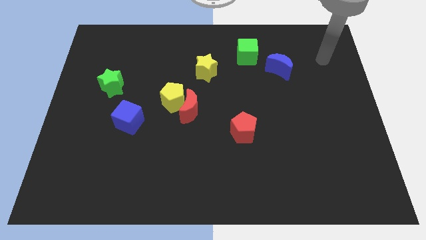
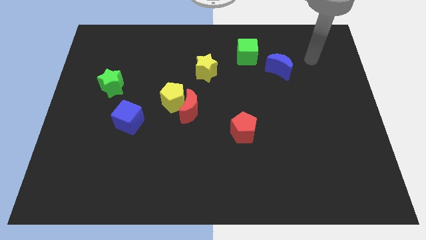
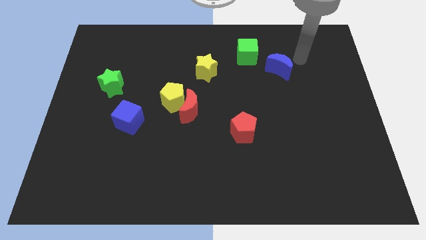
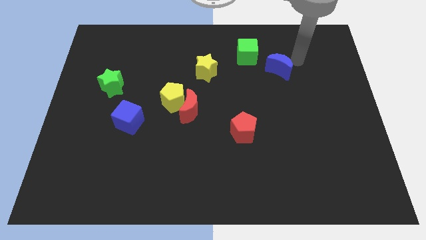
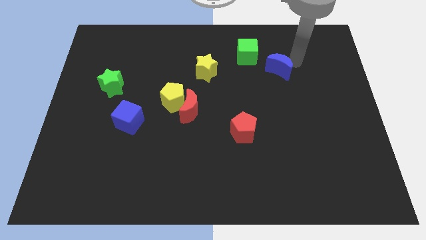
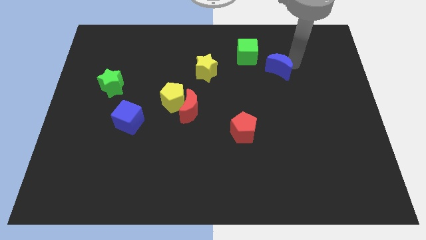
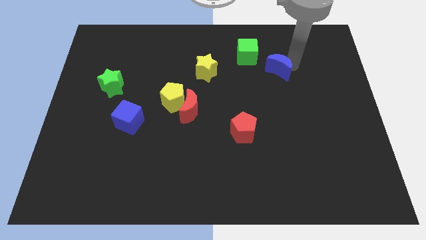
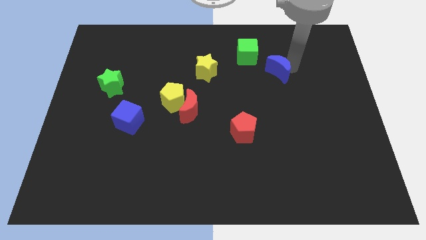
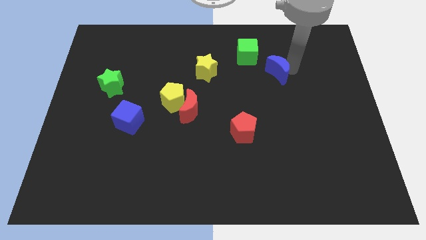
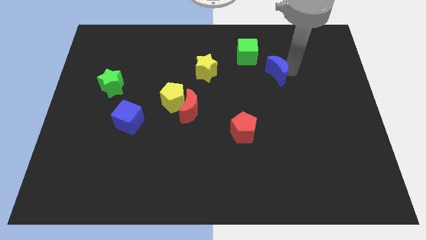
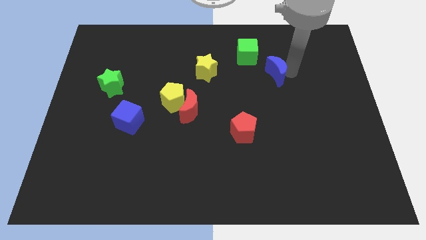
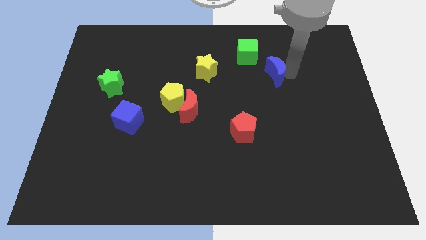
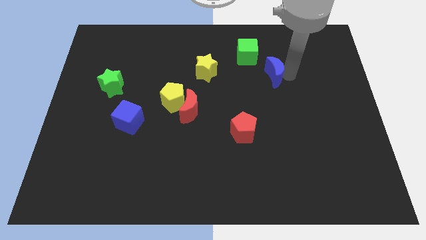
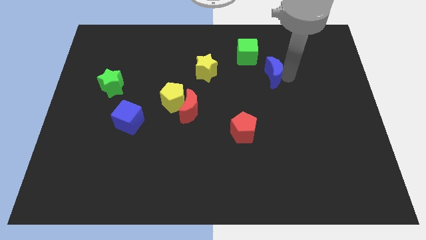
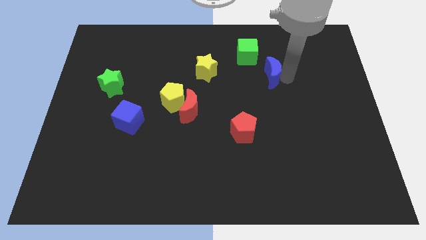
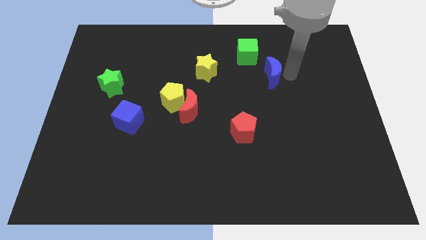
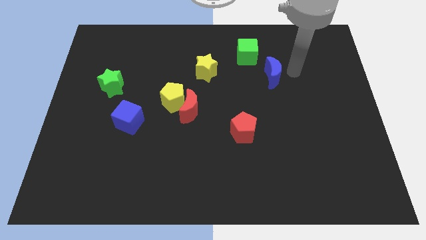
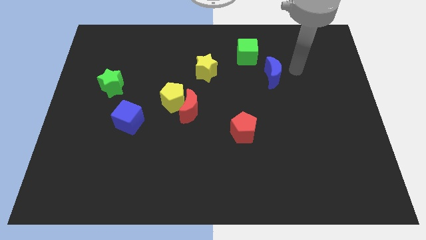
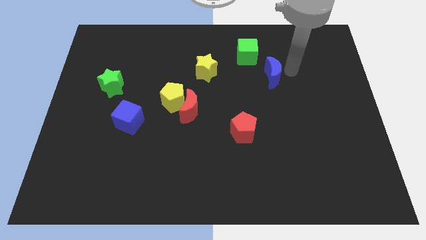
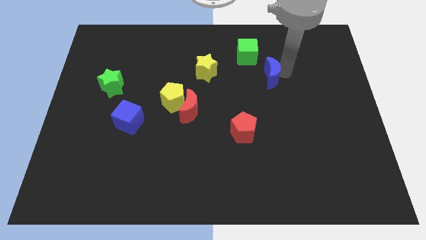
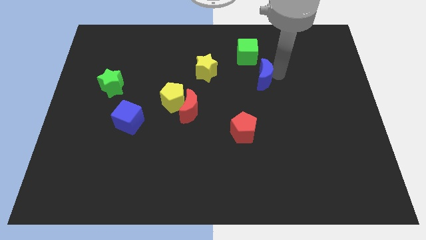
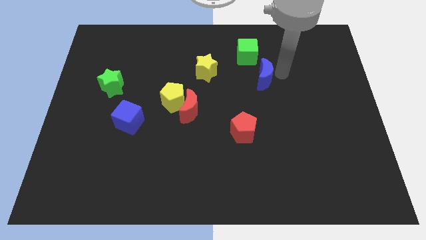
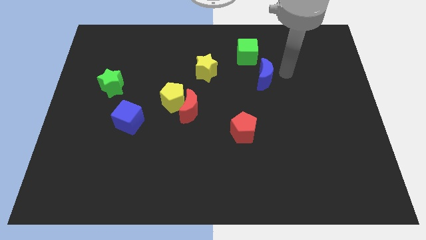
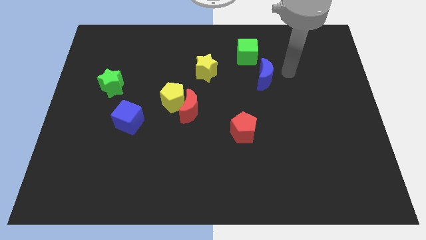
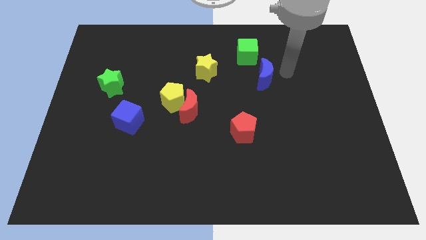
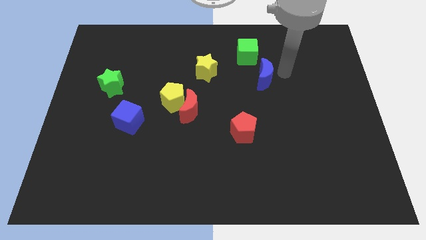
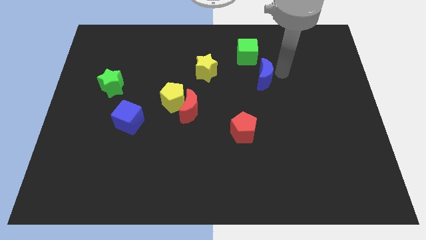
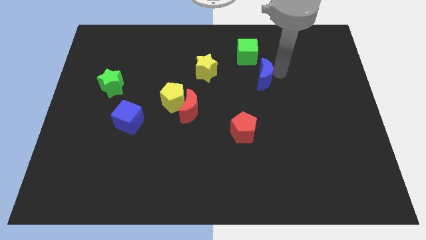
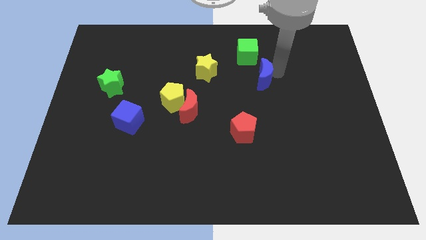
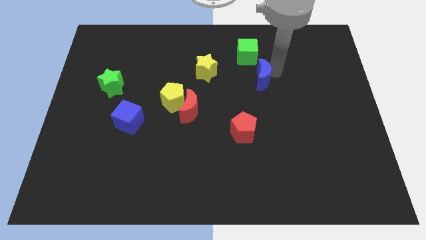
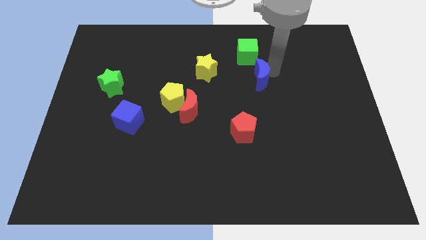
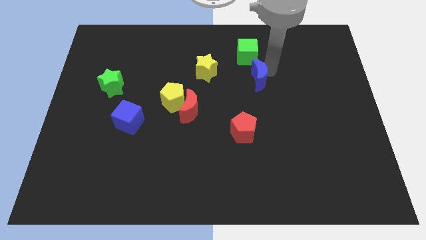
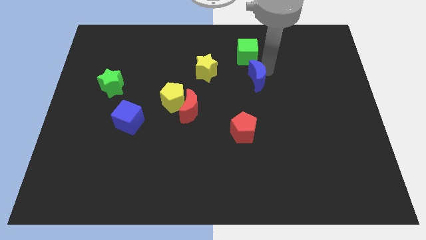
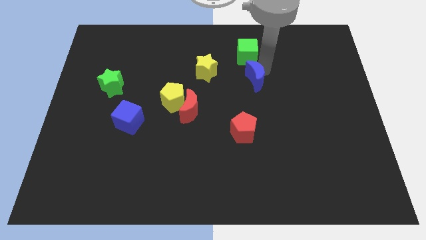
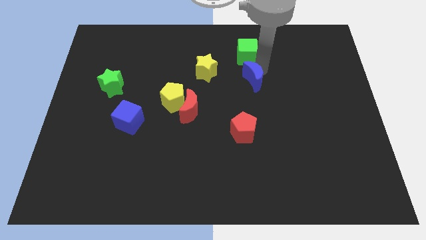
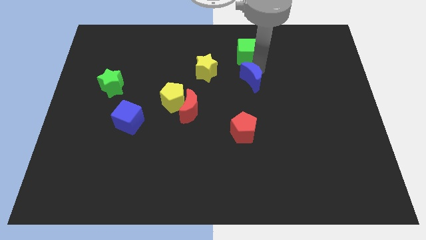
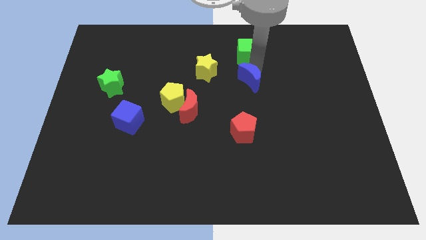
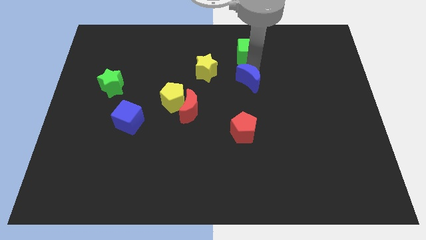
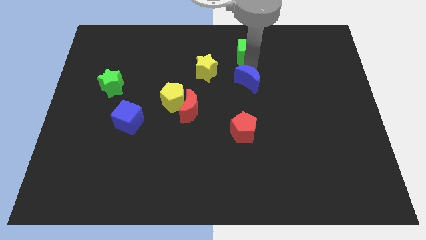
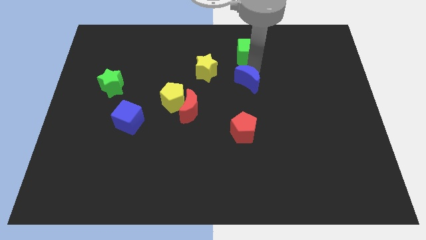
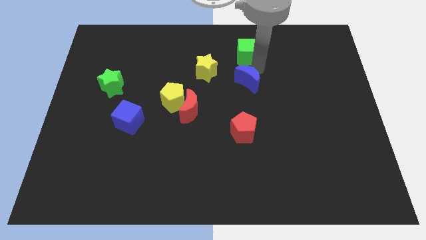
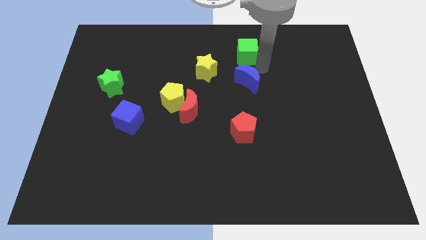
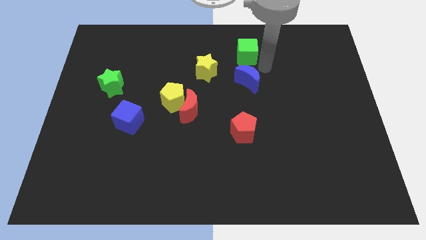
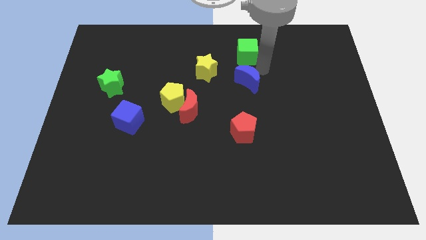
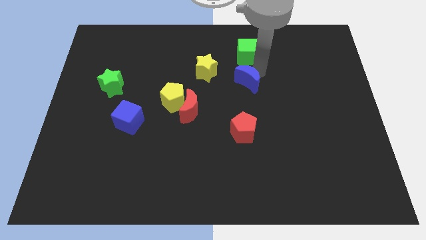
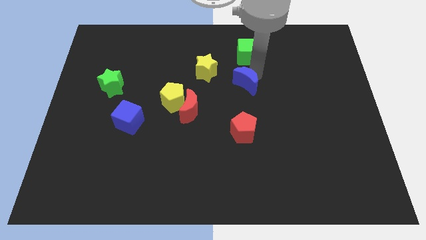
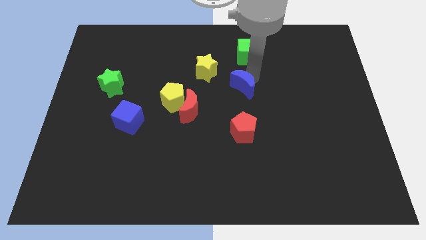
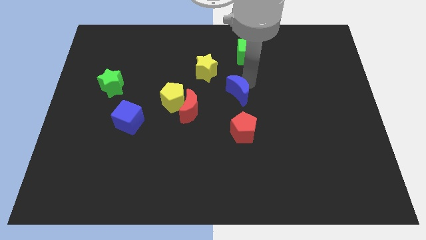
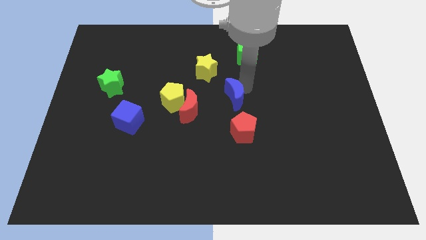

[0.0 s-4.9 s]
slide the blue moon to the right side of the yellow pentagon

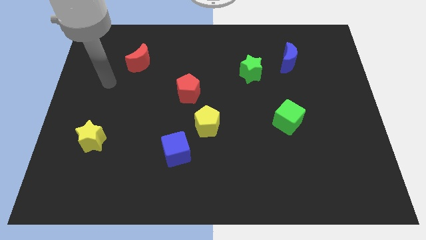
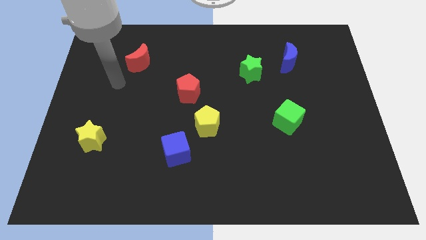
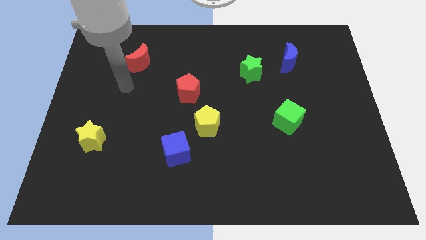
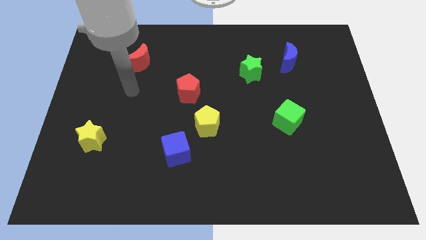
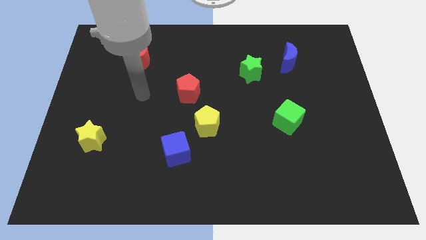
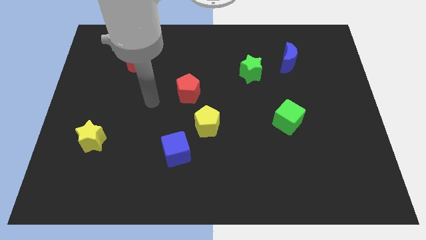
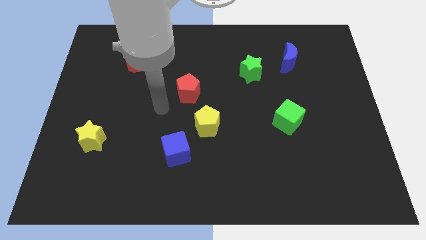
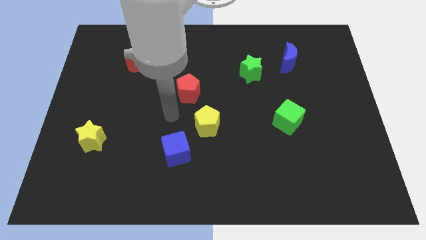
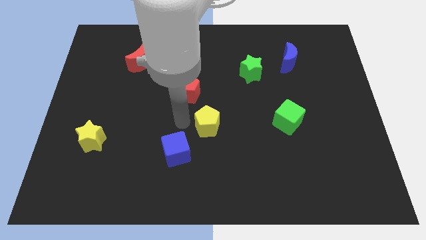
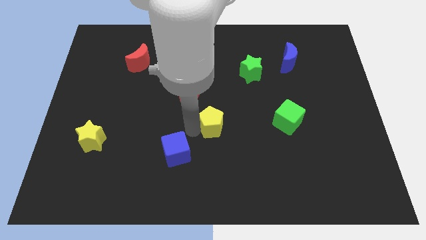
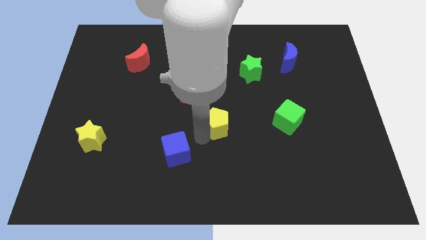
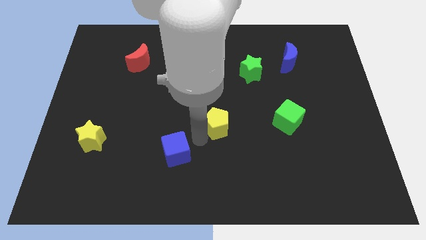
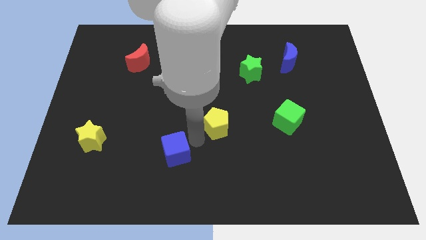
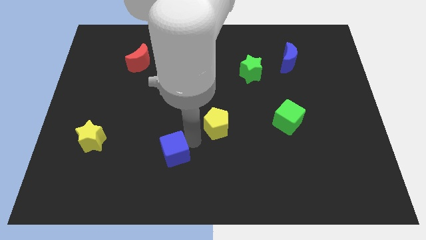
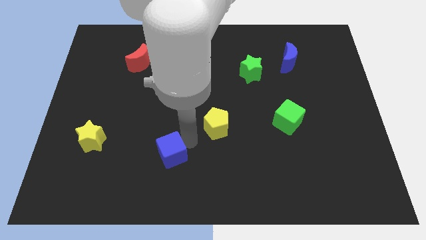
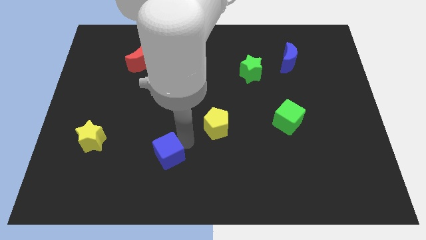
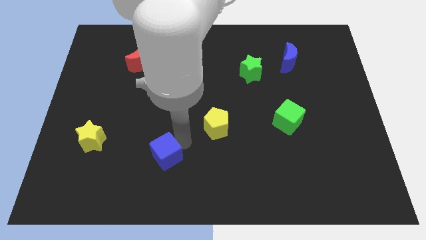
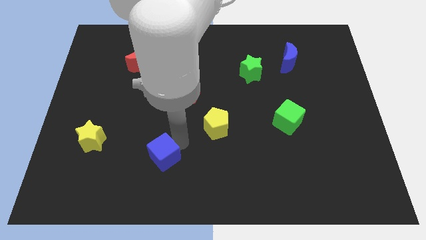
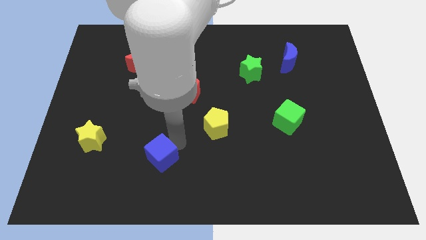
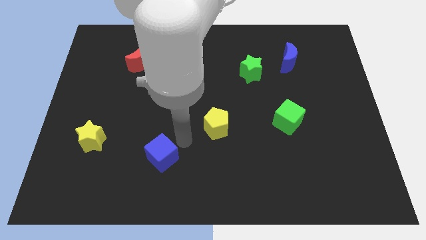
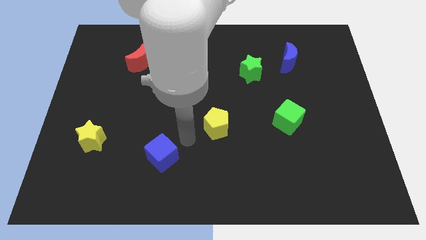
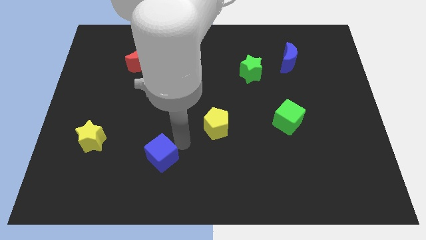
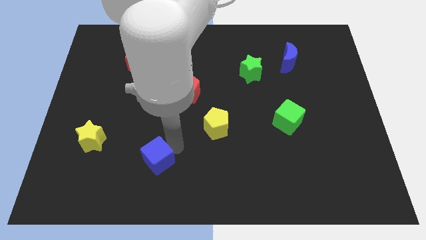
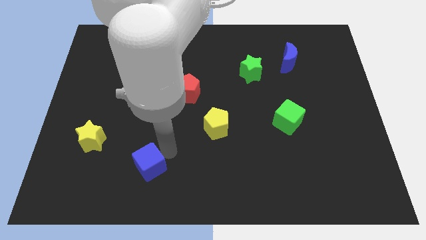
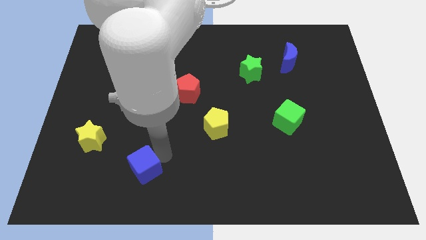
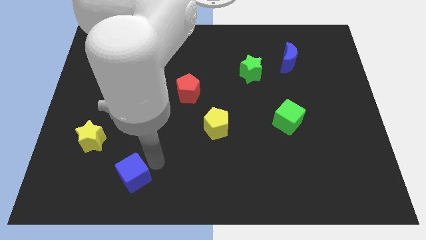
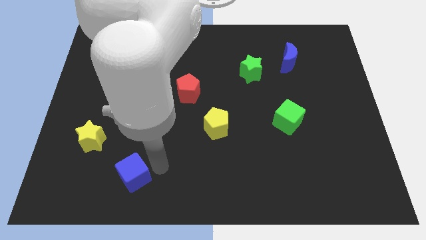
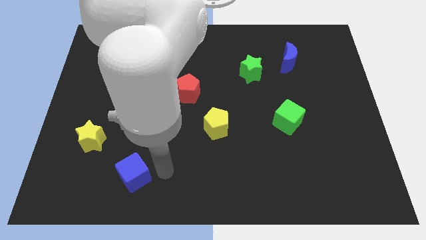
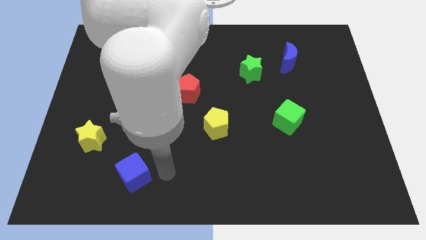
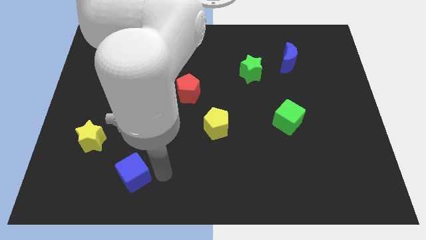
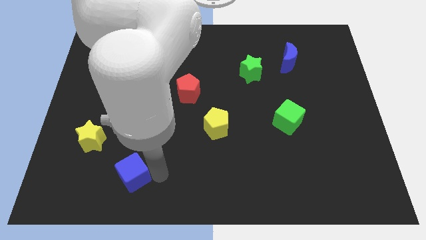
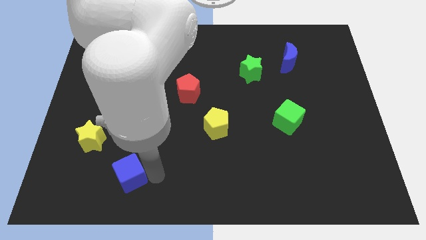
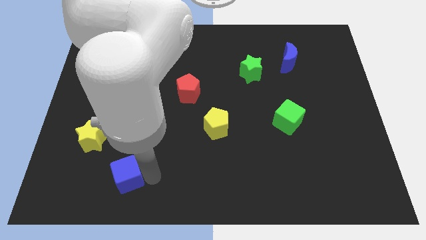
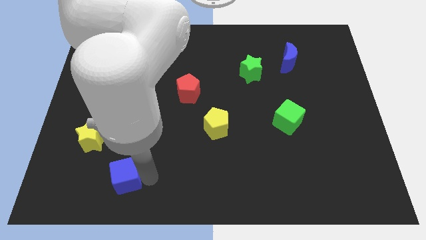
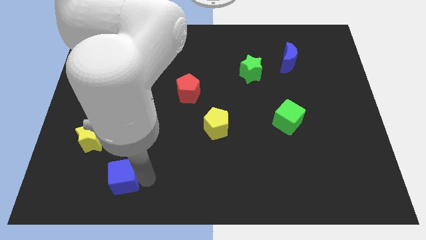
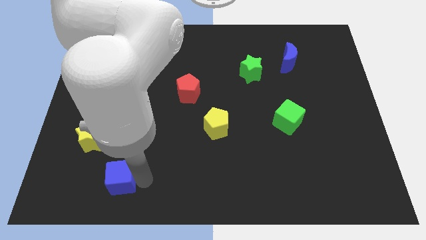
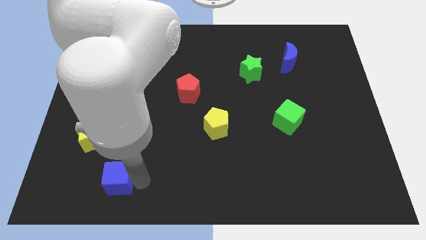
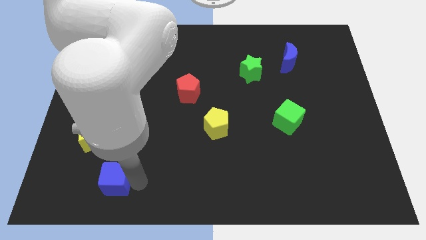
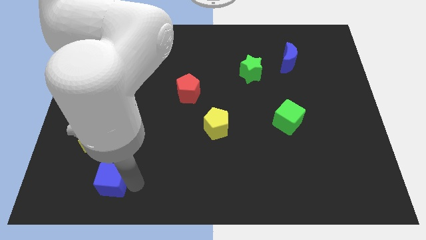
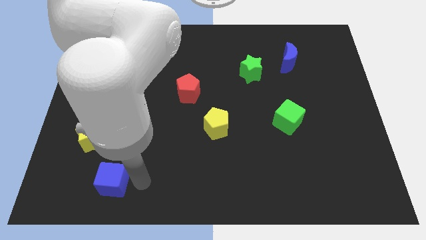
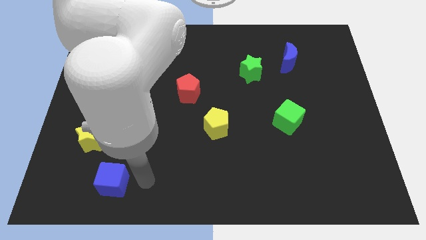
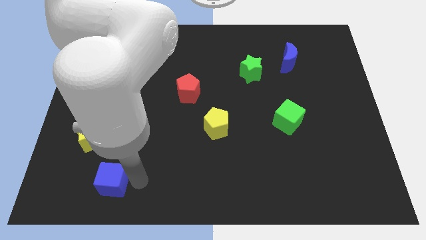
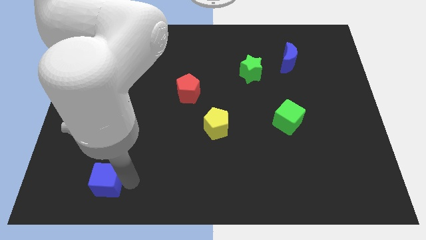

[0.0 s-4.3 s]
move the blue cube to the bottom side of the yellow star
